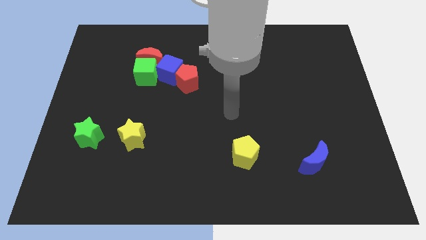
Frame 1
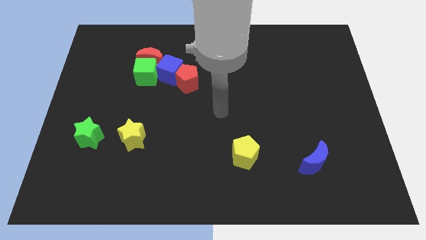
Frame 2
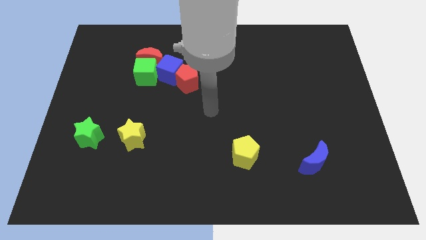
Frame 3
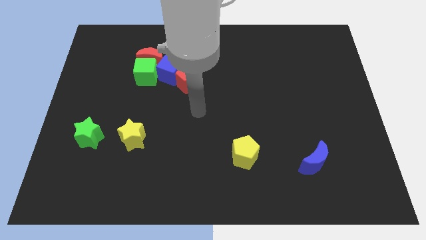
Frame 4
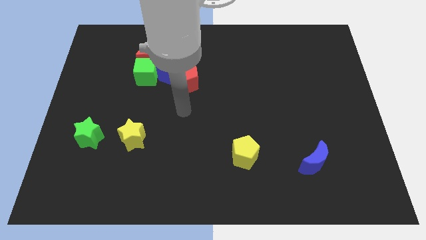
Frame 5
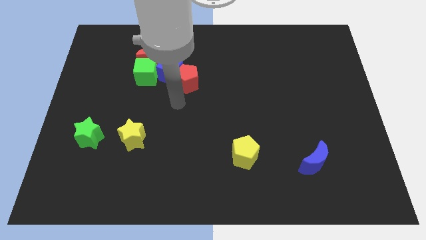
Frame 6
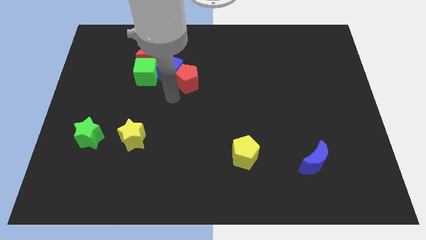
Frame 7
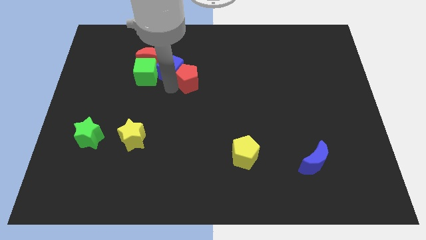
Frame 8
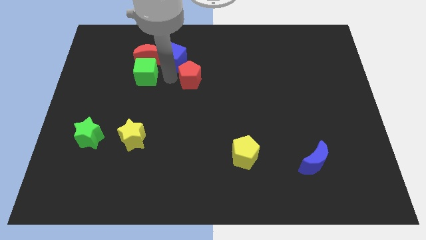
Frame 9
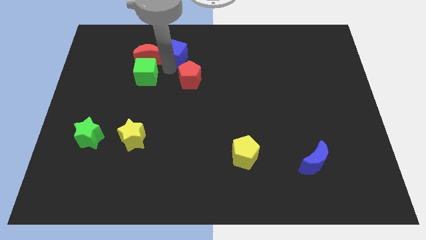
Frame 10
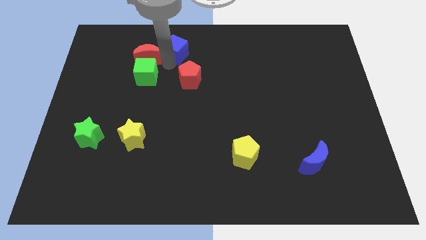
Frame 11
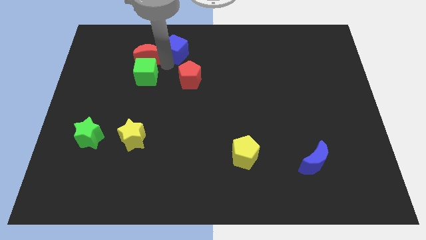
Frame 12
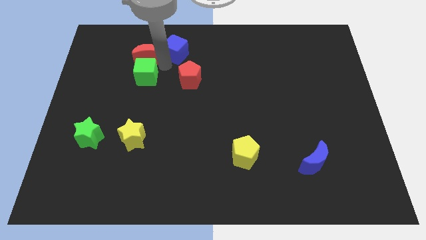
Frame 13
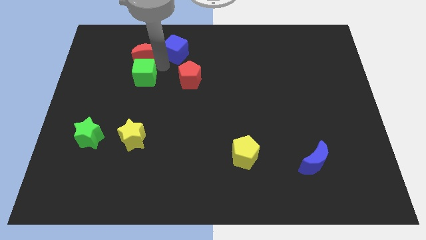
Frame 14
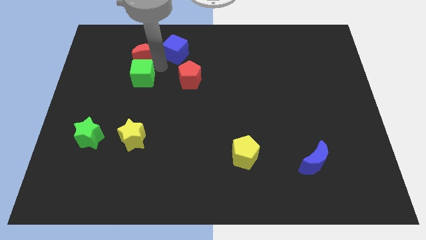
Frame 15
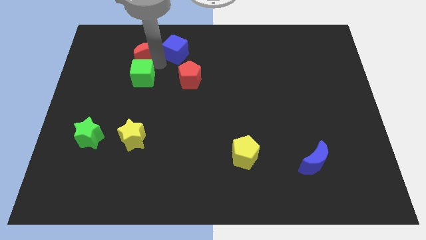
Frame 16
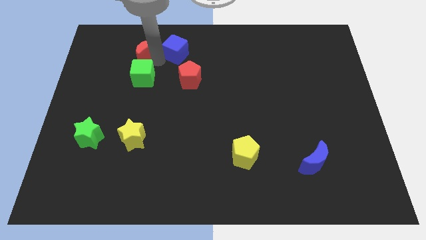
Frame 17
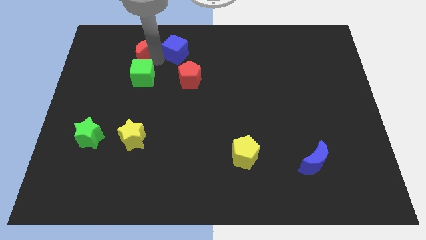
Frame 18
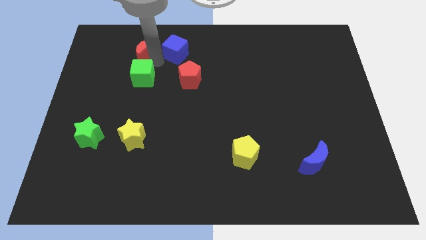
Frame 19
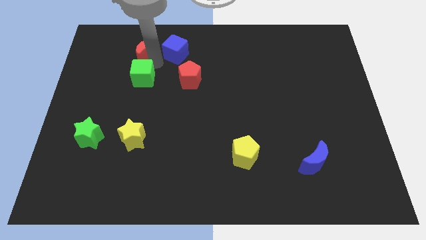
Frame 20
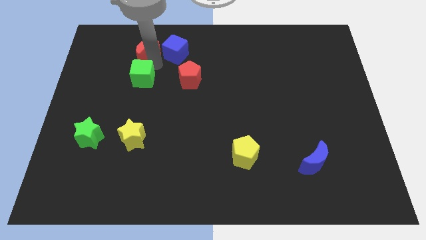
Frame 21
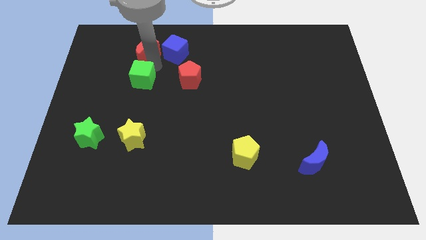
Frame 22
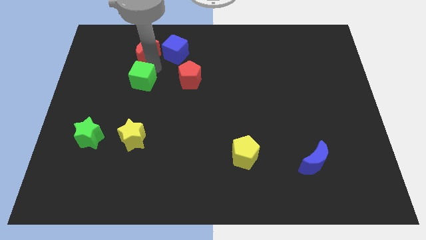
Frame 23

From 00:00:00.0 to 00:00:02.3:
pull the green cube apart from the red moon and blue cube

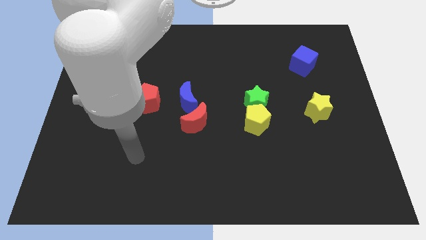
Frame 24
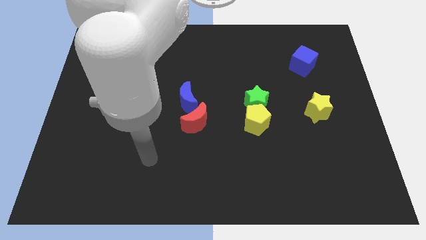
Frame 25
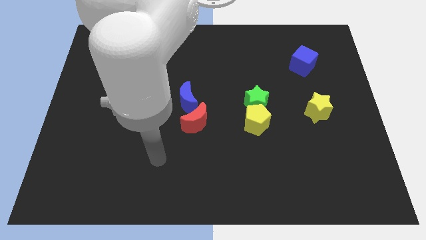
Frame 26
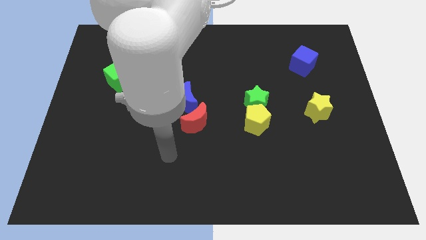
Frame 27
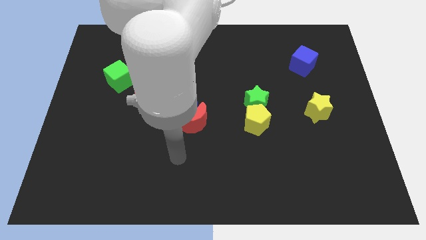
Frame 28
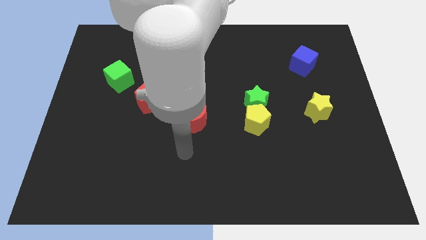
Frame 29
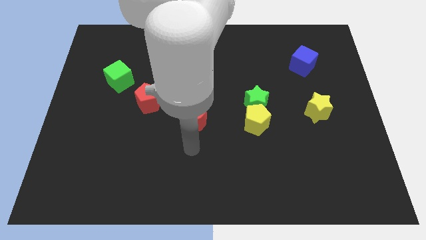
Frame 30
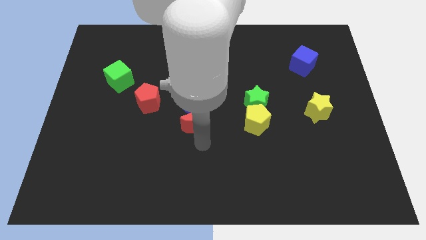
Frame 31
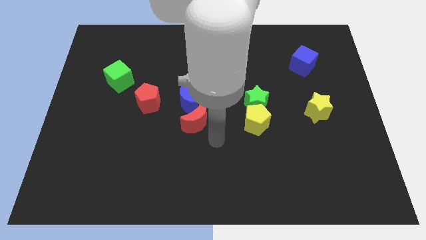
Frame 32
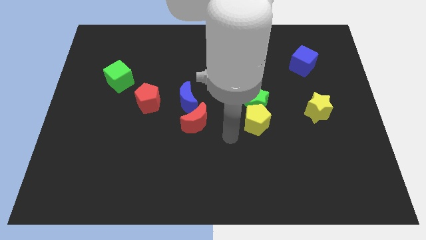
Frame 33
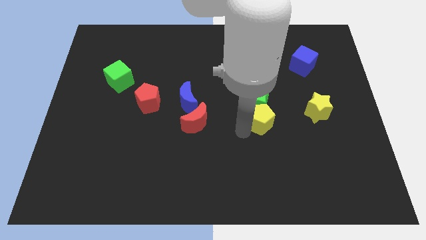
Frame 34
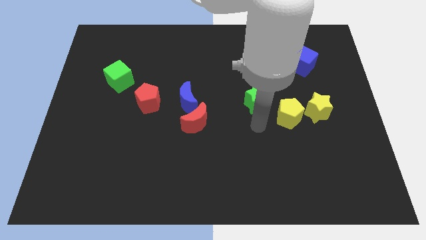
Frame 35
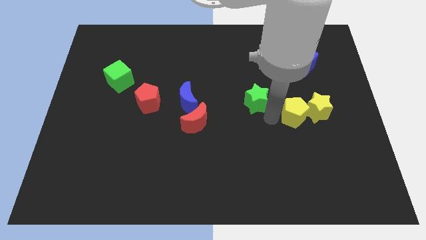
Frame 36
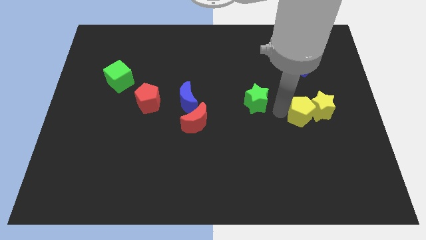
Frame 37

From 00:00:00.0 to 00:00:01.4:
move the green star away from the yellow pentagon

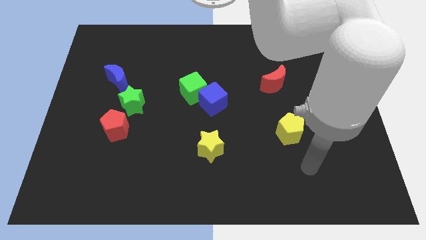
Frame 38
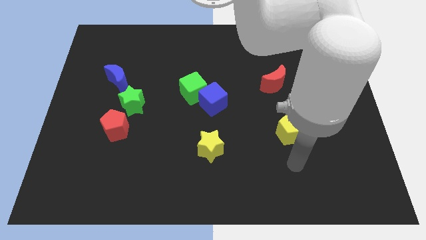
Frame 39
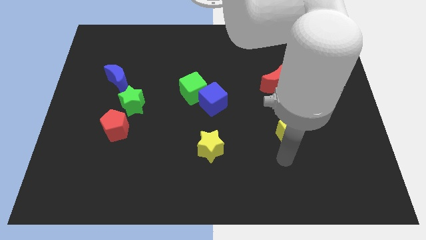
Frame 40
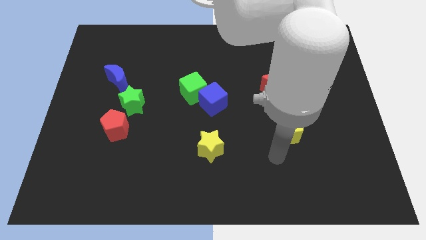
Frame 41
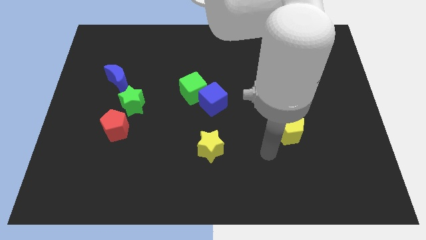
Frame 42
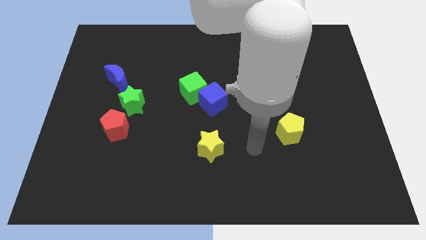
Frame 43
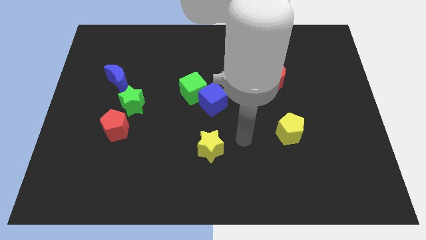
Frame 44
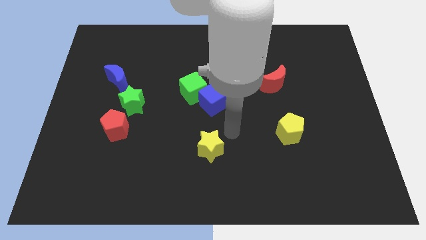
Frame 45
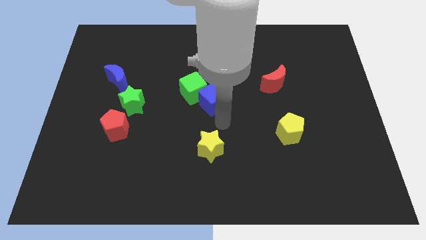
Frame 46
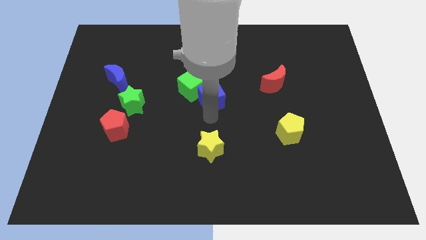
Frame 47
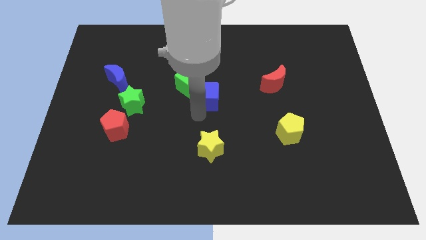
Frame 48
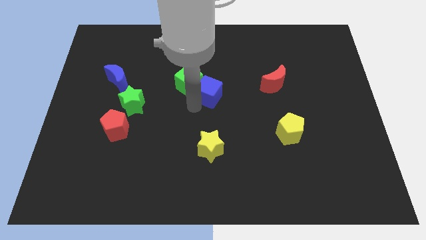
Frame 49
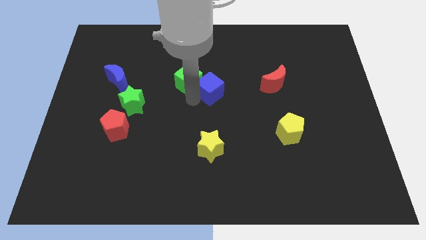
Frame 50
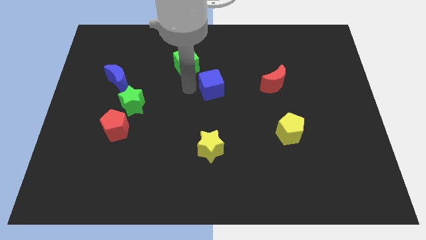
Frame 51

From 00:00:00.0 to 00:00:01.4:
move the blue cube away from the green cube

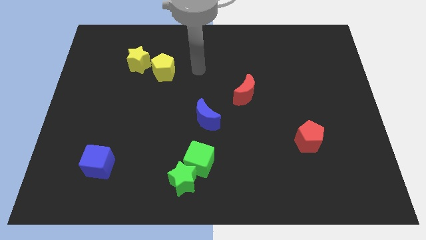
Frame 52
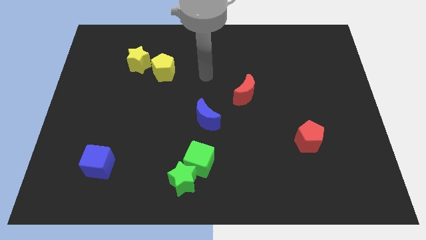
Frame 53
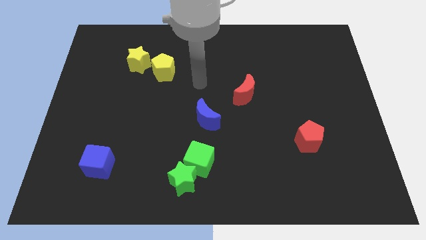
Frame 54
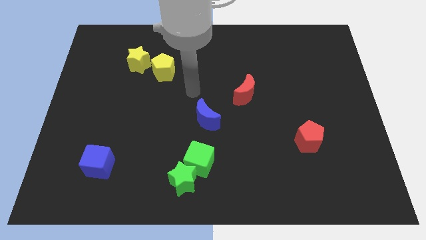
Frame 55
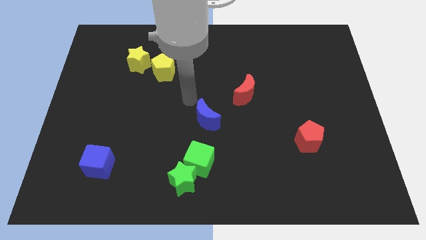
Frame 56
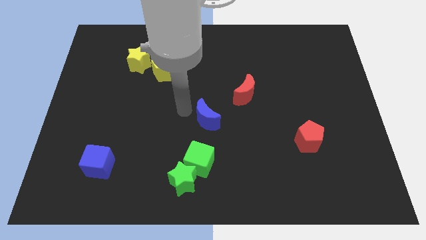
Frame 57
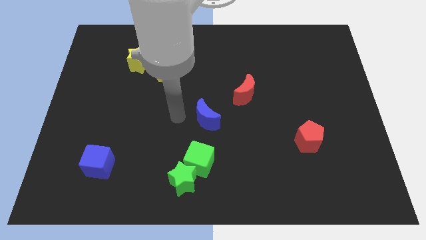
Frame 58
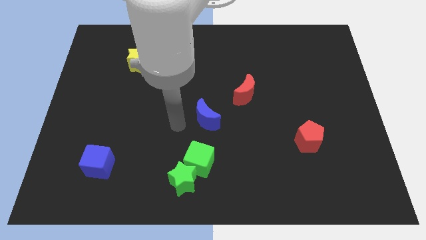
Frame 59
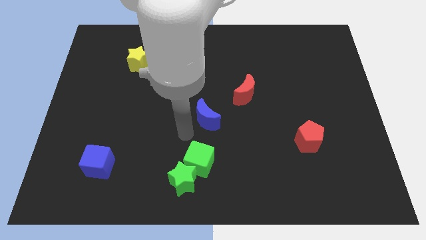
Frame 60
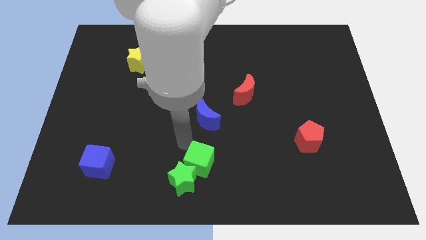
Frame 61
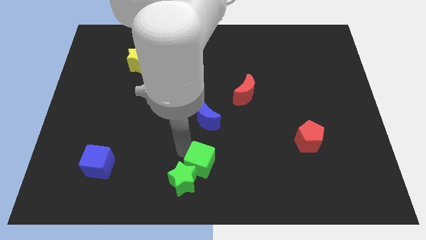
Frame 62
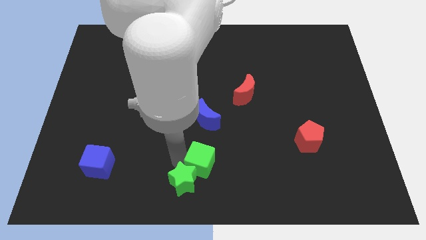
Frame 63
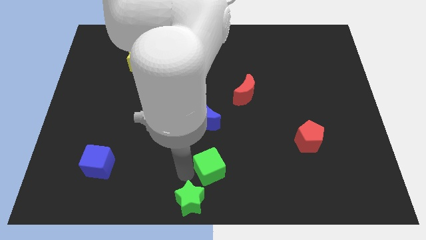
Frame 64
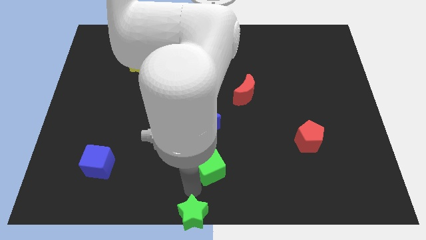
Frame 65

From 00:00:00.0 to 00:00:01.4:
pull the green cube apart from the green star

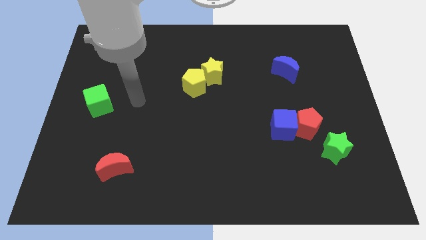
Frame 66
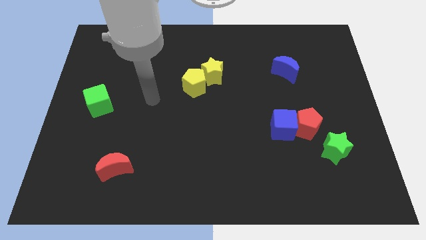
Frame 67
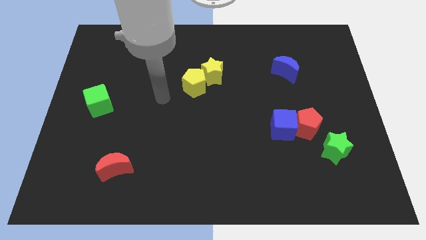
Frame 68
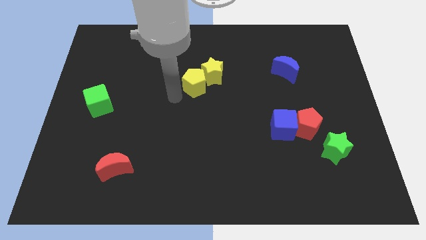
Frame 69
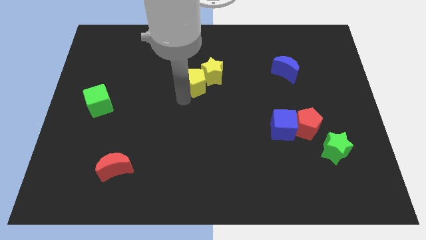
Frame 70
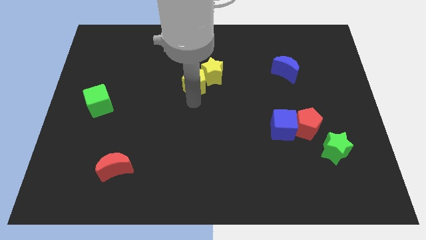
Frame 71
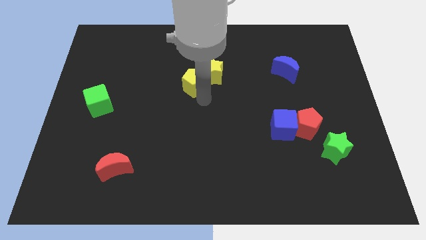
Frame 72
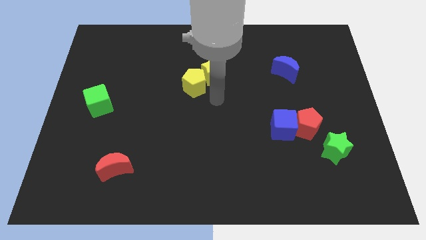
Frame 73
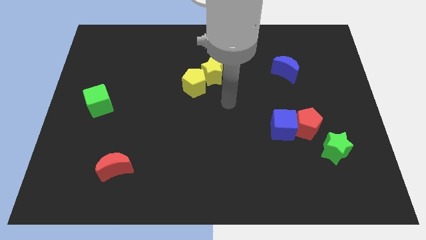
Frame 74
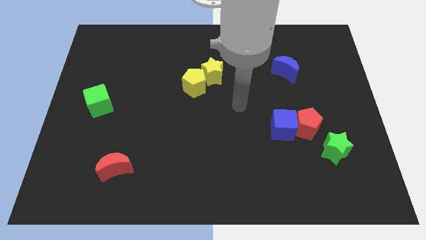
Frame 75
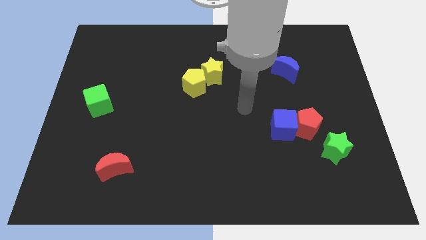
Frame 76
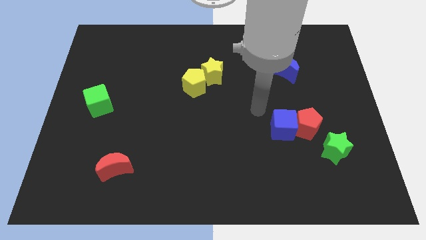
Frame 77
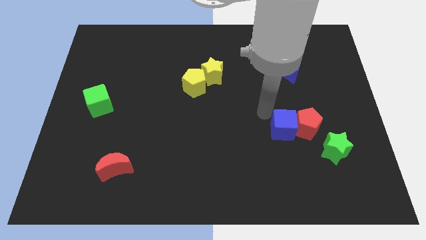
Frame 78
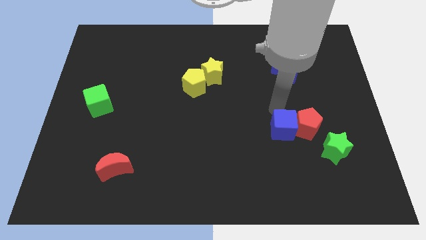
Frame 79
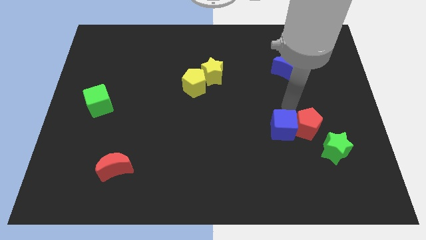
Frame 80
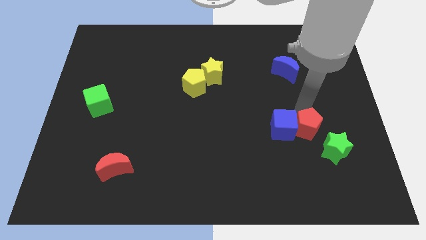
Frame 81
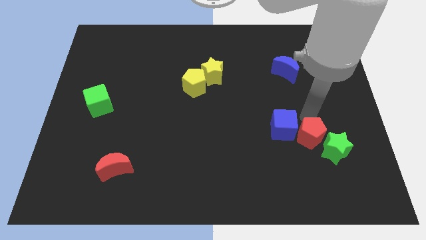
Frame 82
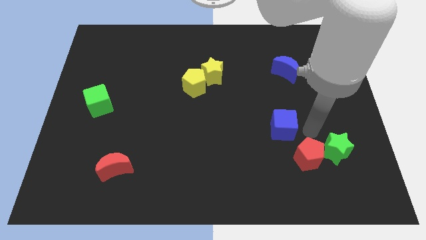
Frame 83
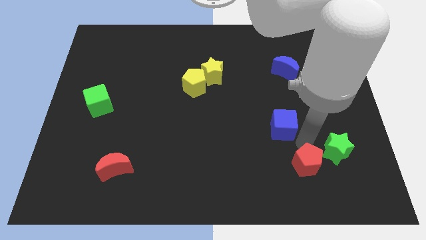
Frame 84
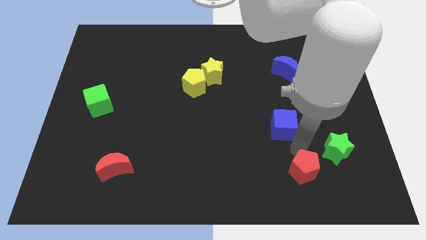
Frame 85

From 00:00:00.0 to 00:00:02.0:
pull the blue cube apart from the red pentagon

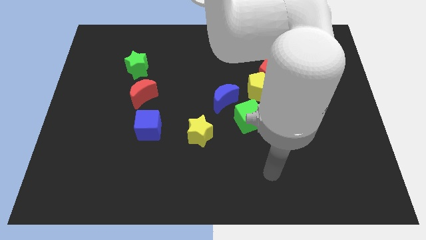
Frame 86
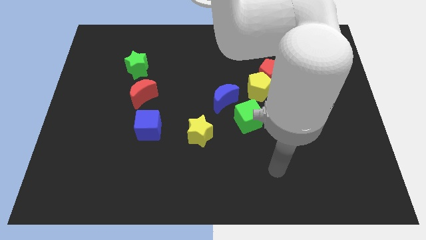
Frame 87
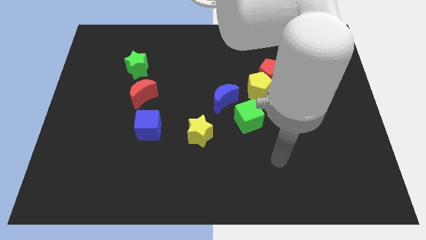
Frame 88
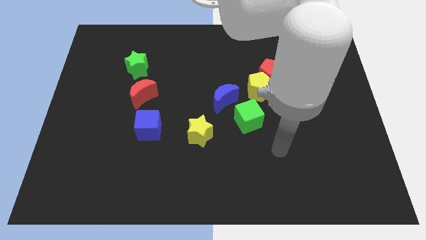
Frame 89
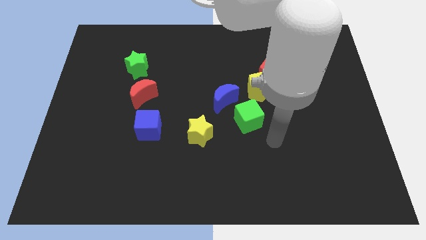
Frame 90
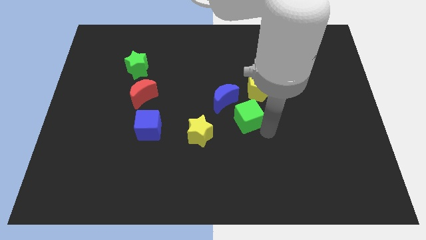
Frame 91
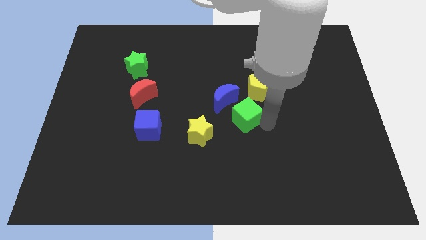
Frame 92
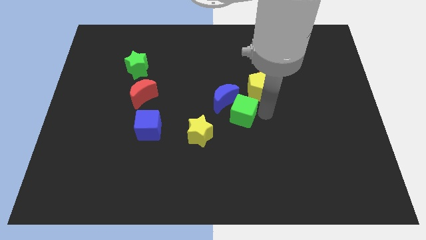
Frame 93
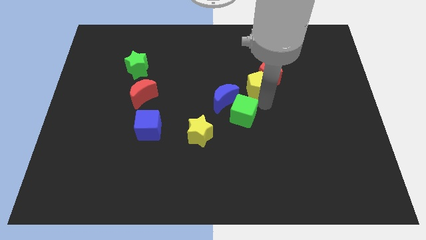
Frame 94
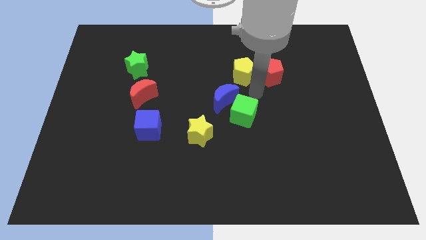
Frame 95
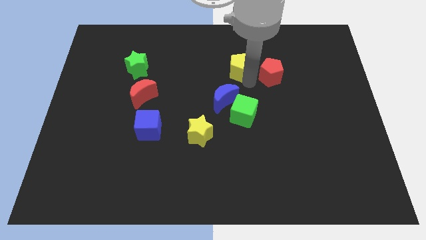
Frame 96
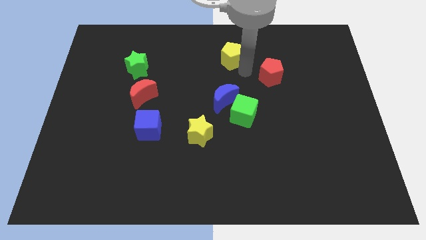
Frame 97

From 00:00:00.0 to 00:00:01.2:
move the red pentagon away from the yellow pentagon
